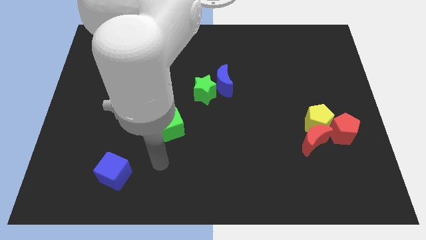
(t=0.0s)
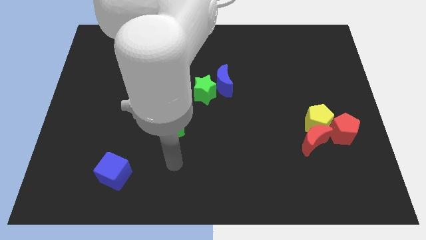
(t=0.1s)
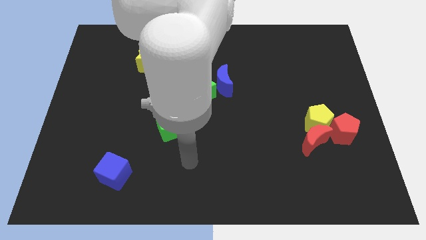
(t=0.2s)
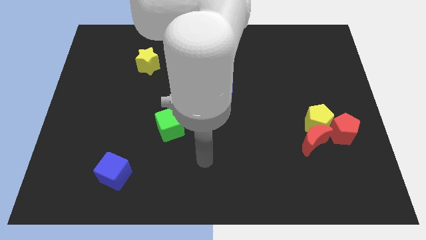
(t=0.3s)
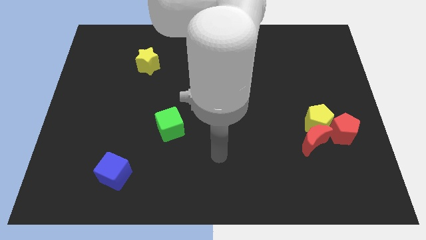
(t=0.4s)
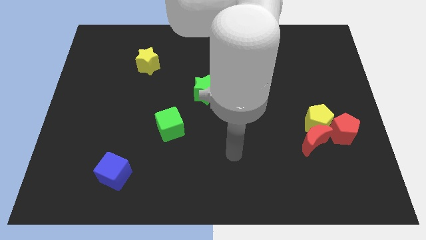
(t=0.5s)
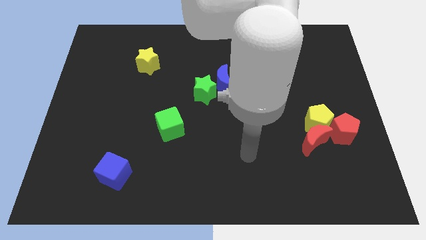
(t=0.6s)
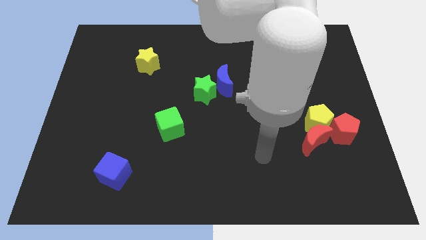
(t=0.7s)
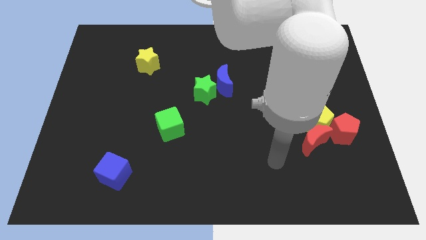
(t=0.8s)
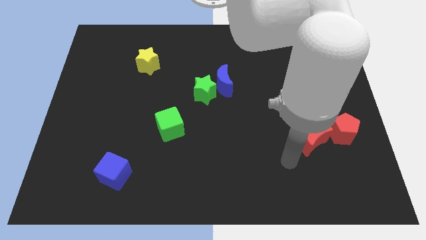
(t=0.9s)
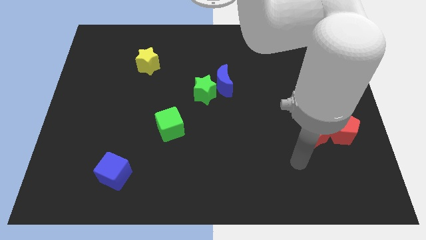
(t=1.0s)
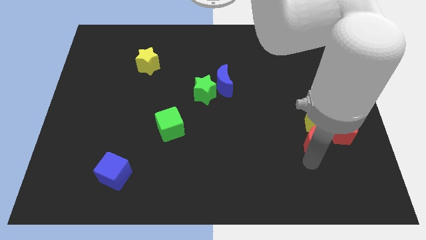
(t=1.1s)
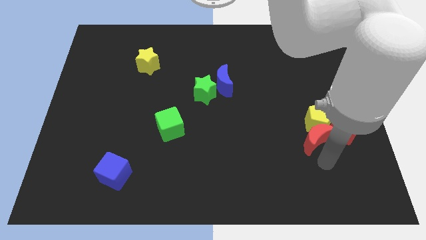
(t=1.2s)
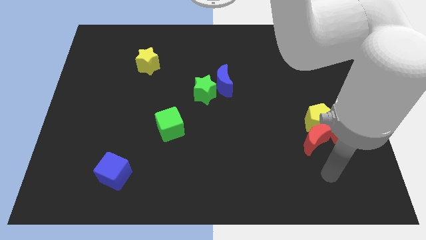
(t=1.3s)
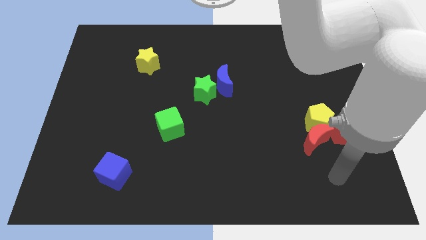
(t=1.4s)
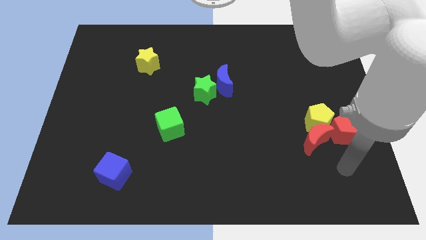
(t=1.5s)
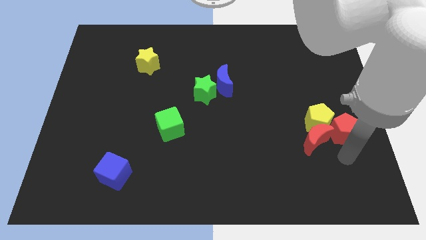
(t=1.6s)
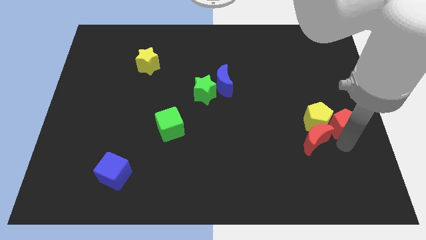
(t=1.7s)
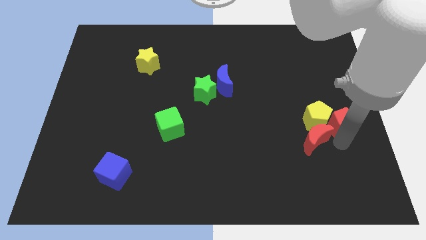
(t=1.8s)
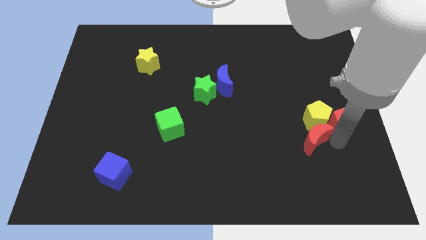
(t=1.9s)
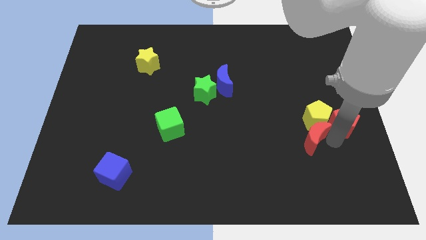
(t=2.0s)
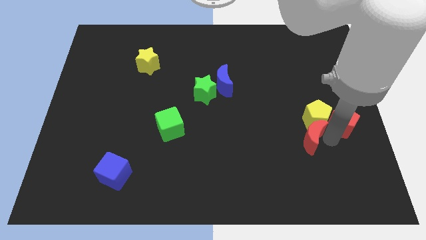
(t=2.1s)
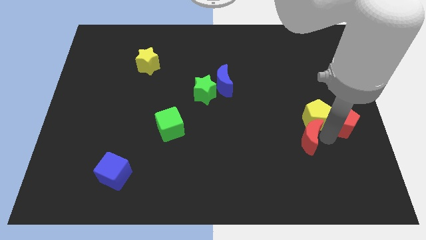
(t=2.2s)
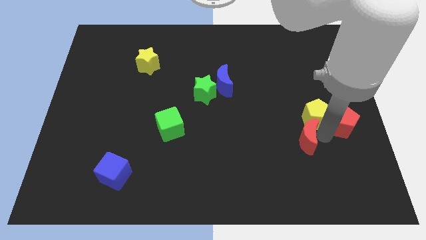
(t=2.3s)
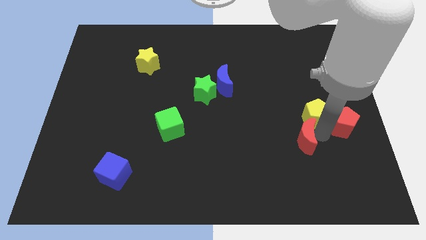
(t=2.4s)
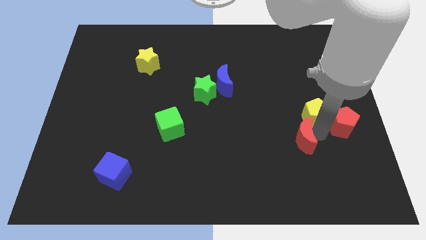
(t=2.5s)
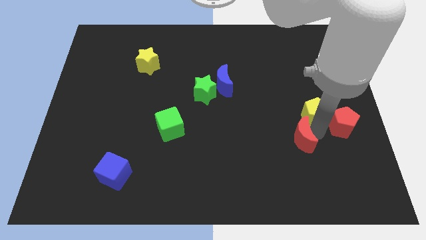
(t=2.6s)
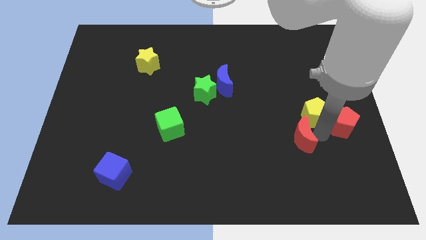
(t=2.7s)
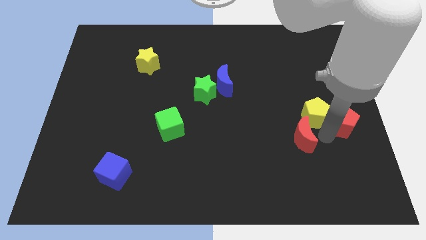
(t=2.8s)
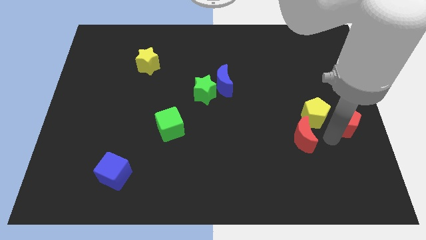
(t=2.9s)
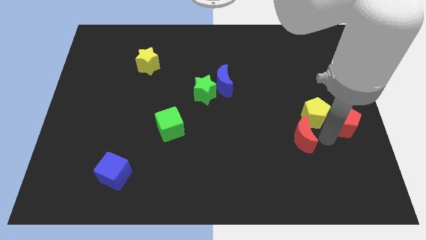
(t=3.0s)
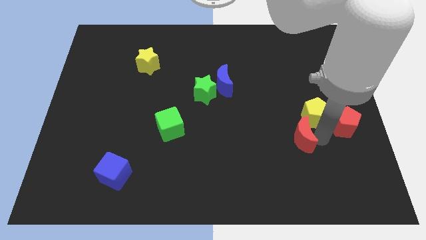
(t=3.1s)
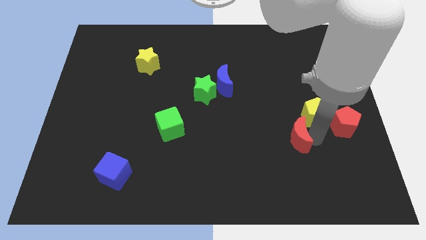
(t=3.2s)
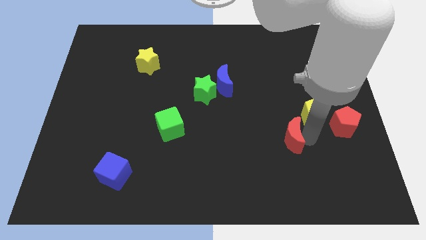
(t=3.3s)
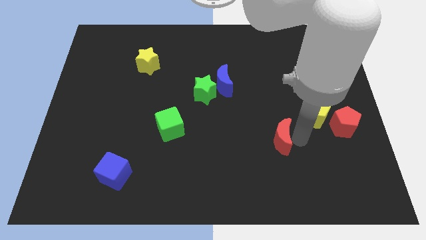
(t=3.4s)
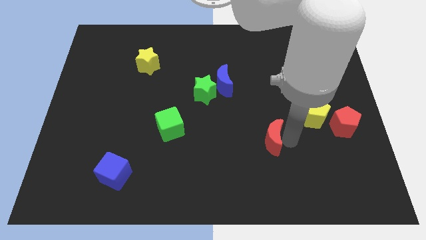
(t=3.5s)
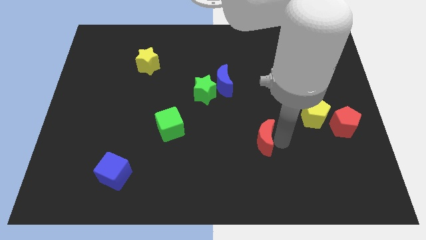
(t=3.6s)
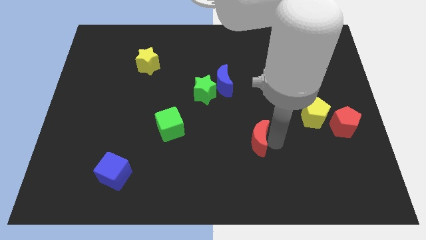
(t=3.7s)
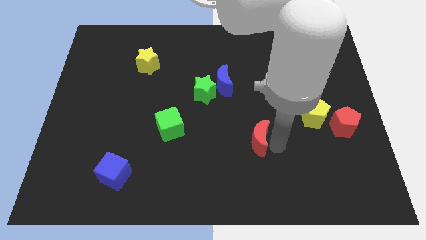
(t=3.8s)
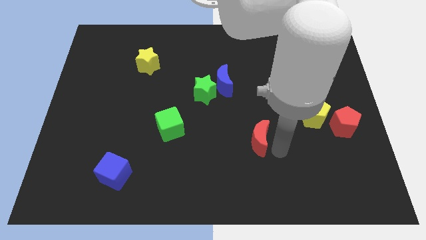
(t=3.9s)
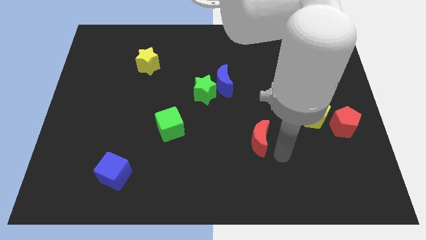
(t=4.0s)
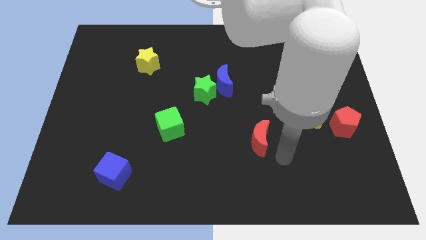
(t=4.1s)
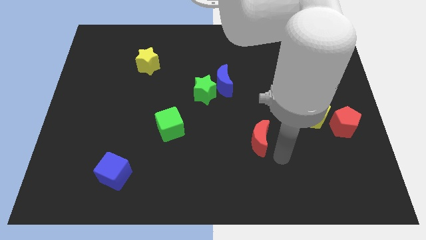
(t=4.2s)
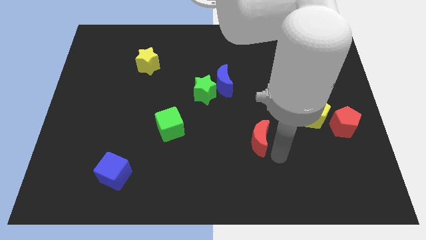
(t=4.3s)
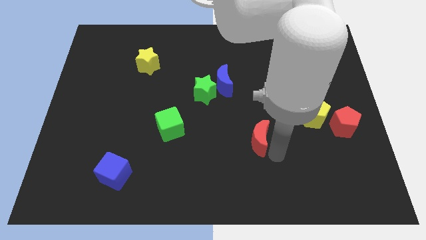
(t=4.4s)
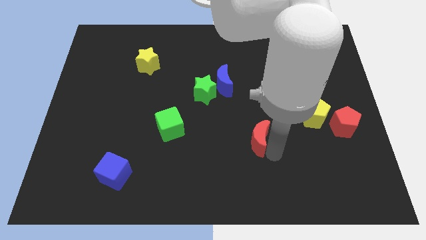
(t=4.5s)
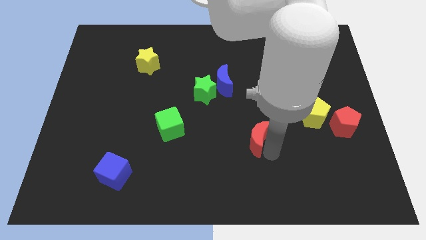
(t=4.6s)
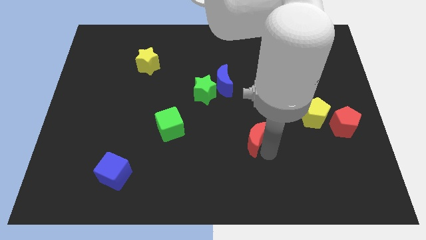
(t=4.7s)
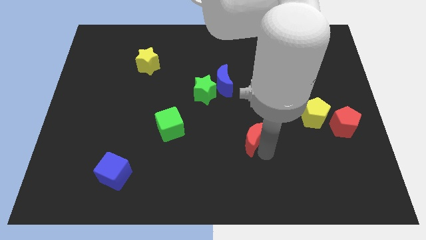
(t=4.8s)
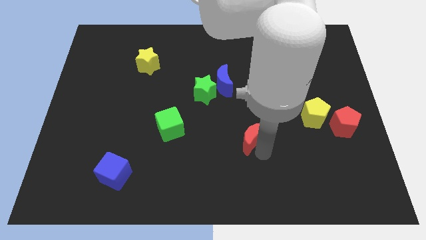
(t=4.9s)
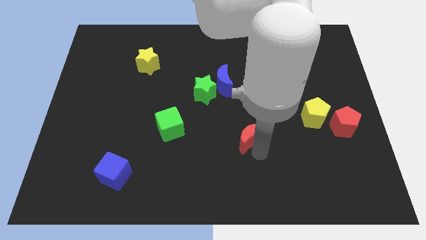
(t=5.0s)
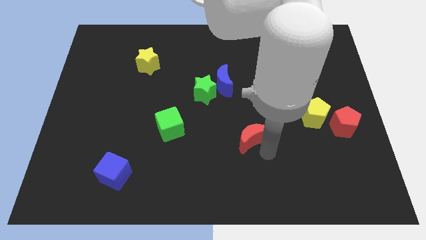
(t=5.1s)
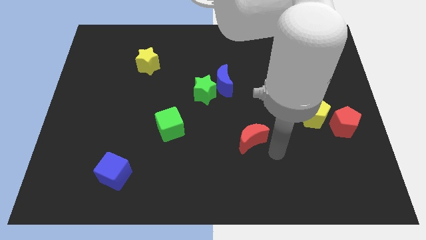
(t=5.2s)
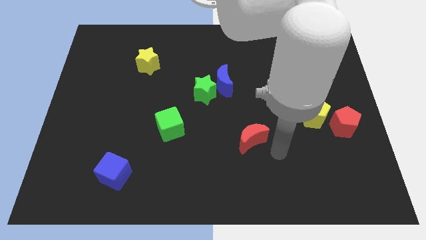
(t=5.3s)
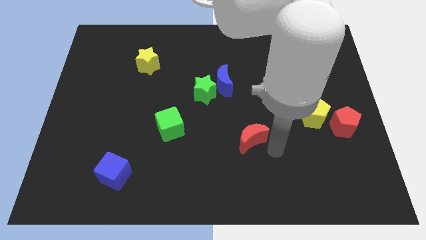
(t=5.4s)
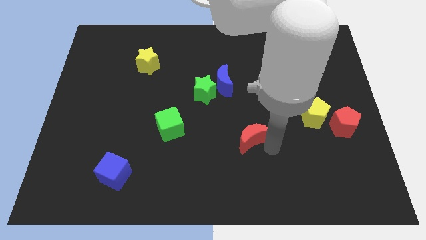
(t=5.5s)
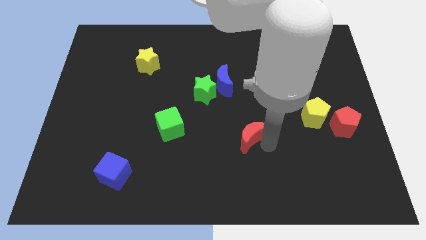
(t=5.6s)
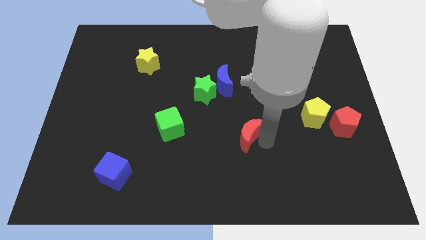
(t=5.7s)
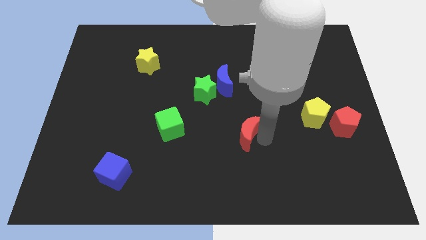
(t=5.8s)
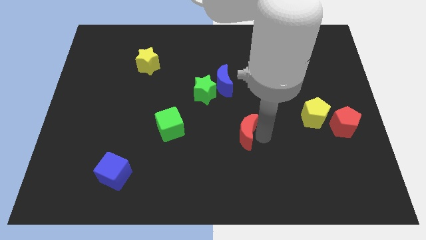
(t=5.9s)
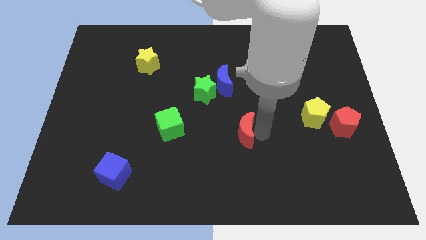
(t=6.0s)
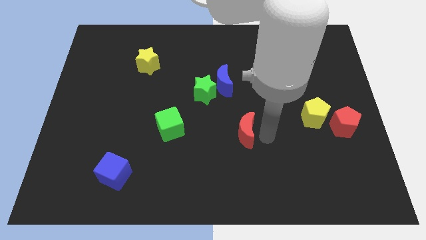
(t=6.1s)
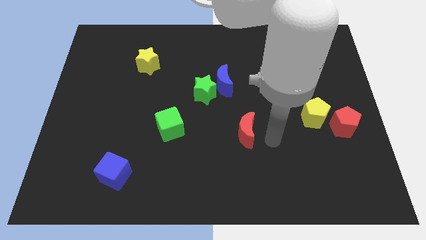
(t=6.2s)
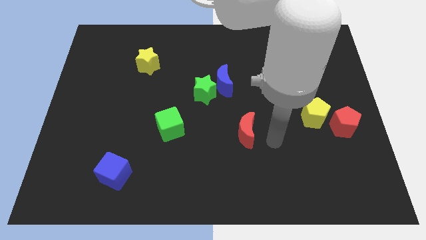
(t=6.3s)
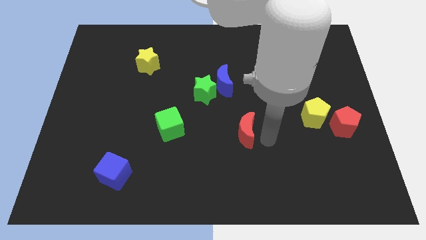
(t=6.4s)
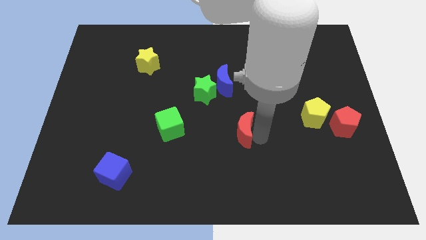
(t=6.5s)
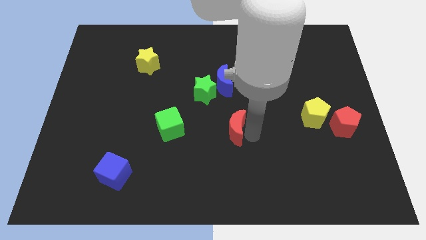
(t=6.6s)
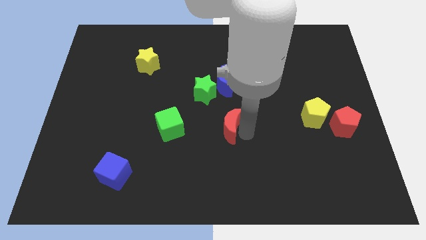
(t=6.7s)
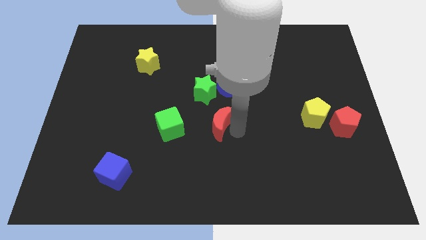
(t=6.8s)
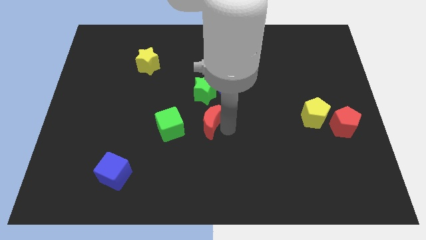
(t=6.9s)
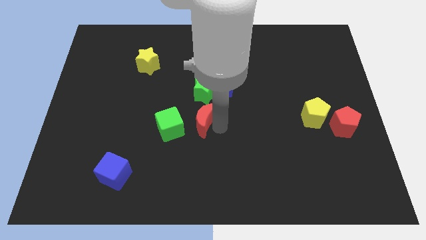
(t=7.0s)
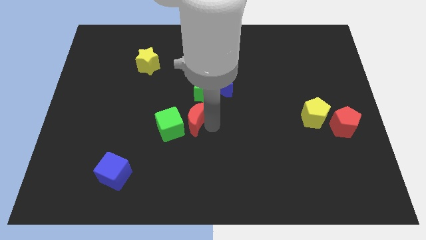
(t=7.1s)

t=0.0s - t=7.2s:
push the red moon diagonally down and to the left of the green star
